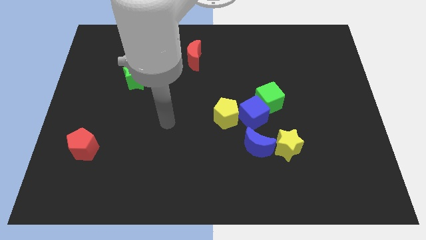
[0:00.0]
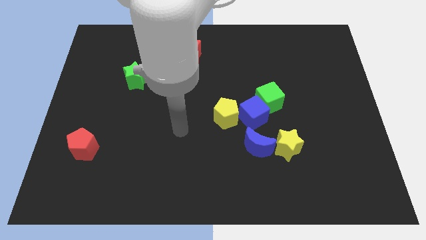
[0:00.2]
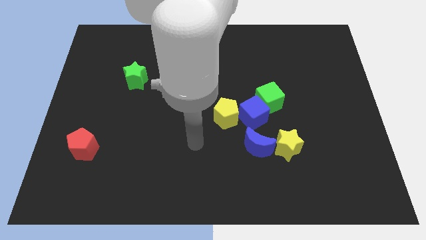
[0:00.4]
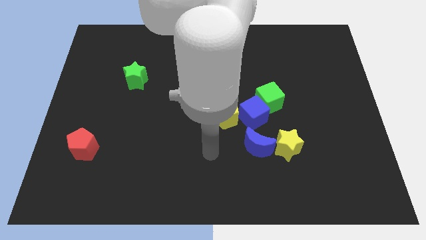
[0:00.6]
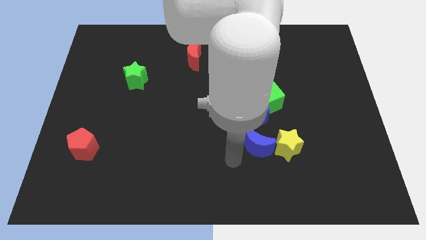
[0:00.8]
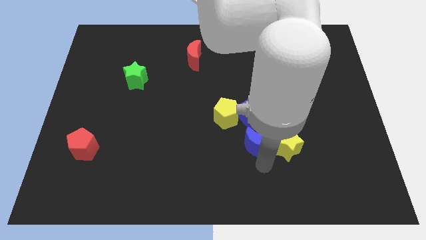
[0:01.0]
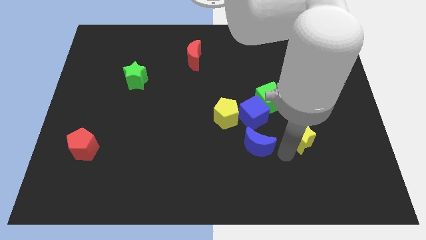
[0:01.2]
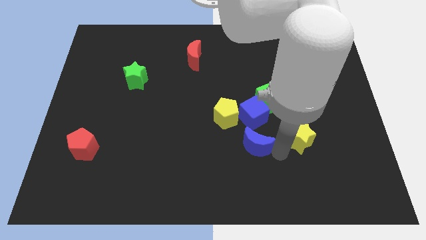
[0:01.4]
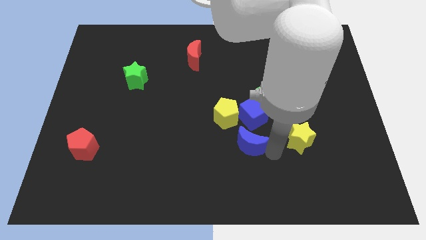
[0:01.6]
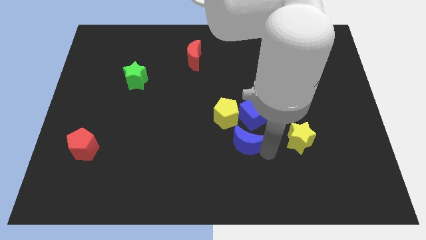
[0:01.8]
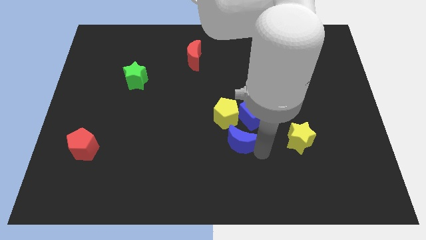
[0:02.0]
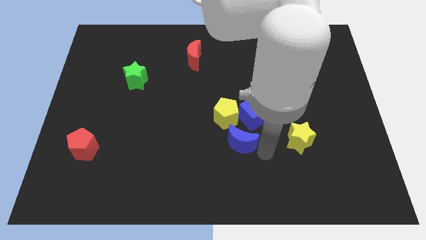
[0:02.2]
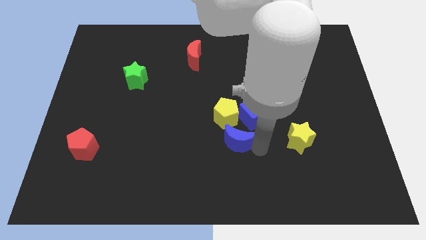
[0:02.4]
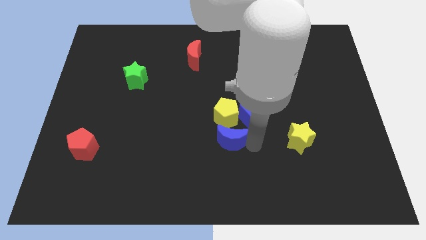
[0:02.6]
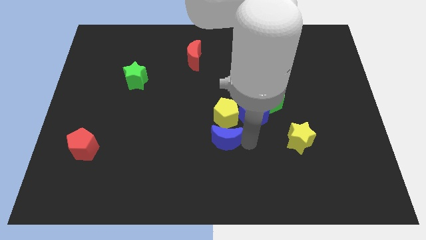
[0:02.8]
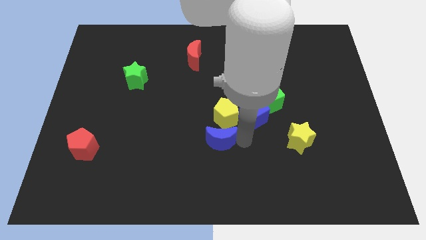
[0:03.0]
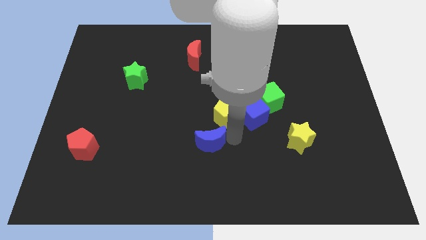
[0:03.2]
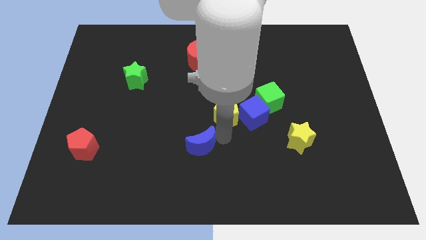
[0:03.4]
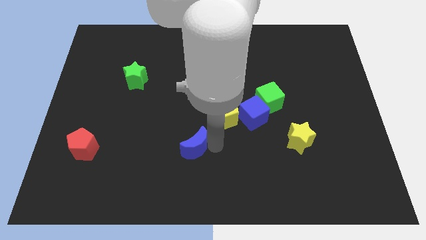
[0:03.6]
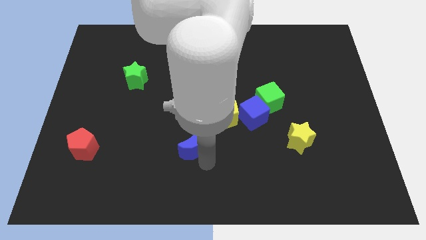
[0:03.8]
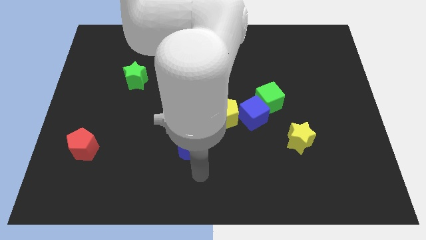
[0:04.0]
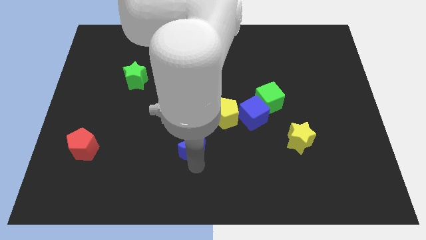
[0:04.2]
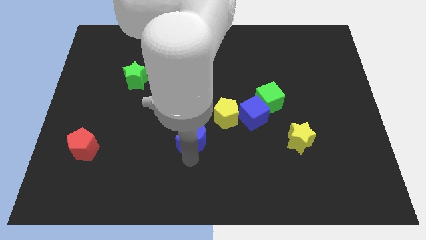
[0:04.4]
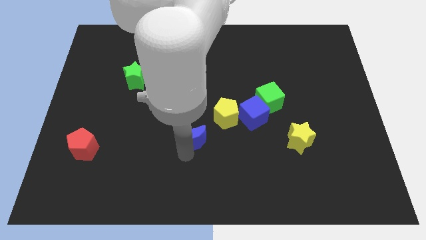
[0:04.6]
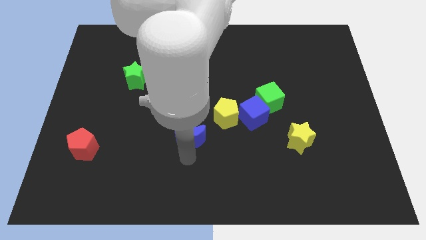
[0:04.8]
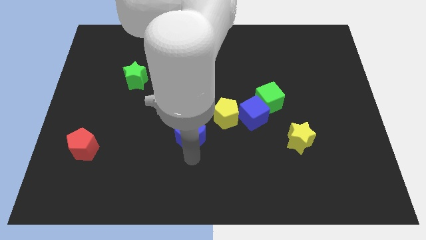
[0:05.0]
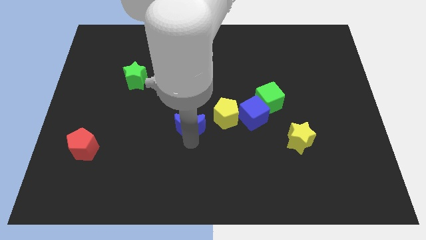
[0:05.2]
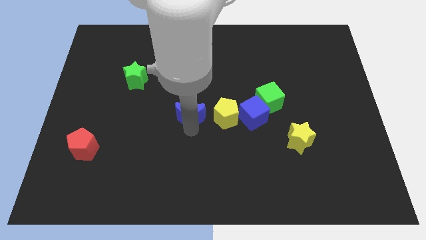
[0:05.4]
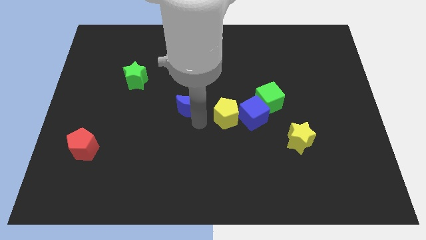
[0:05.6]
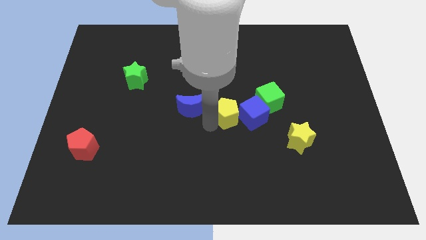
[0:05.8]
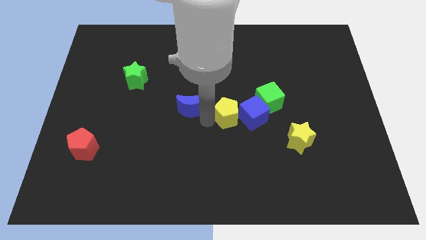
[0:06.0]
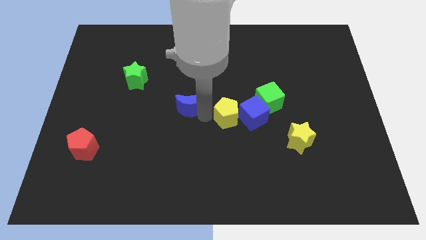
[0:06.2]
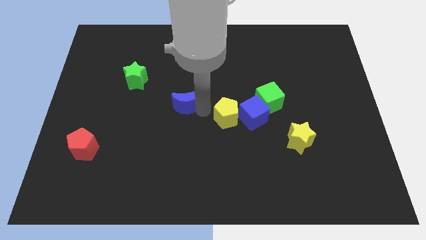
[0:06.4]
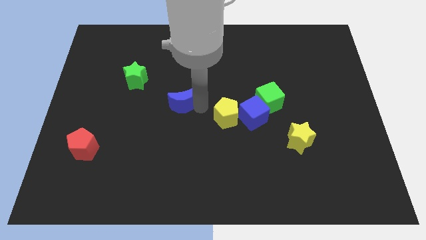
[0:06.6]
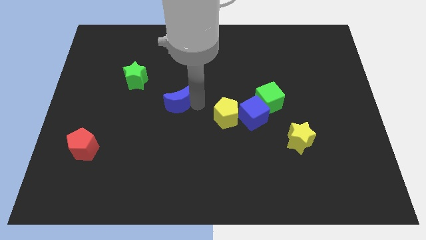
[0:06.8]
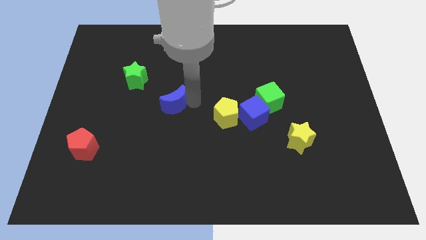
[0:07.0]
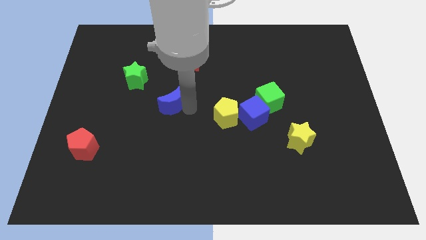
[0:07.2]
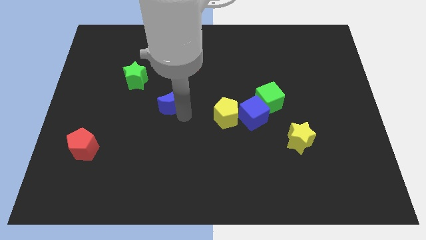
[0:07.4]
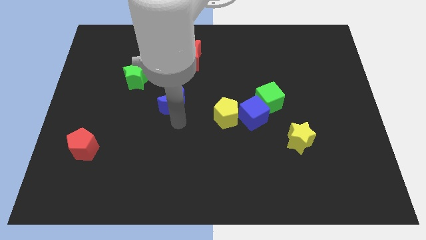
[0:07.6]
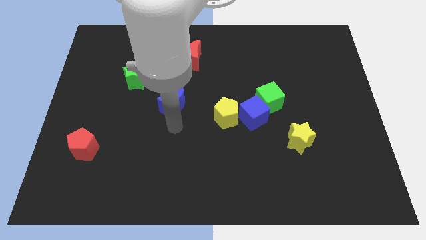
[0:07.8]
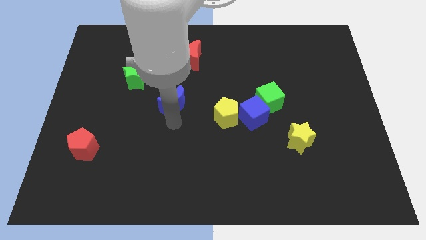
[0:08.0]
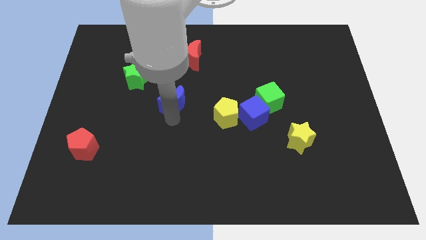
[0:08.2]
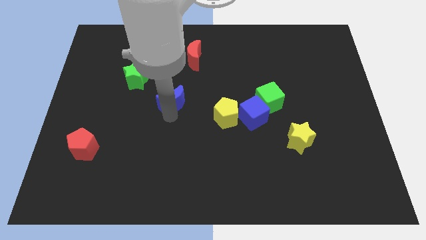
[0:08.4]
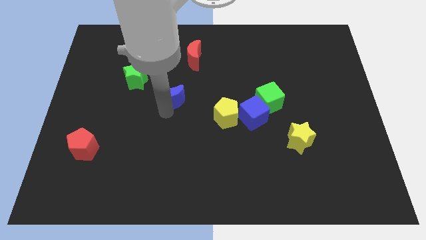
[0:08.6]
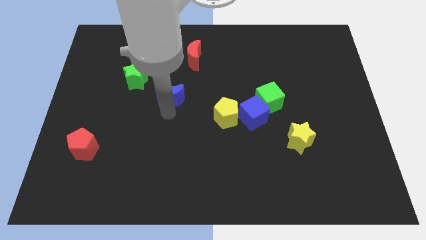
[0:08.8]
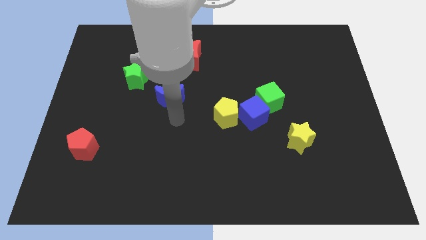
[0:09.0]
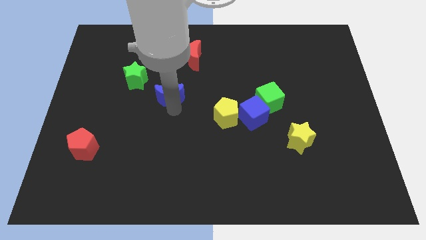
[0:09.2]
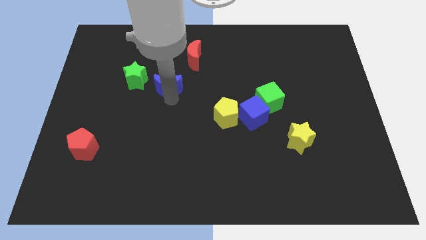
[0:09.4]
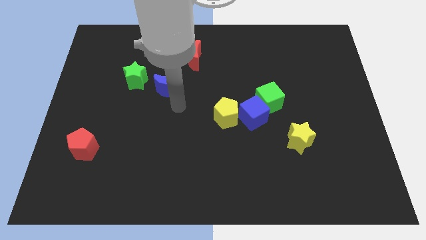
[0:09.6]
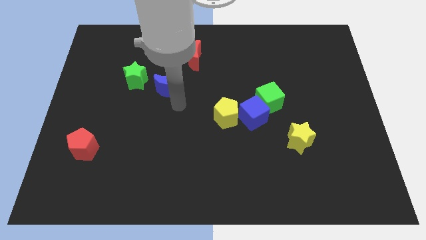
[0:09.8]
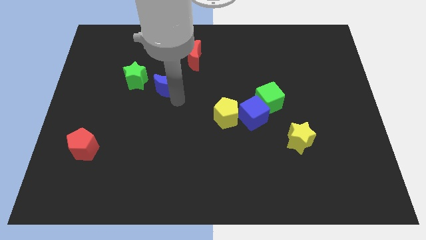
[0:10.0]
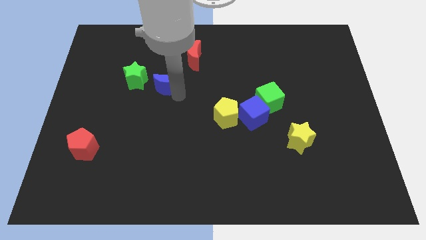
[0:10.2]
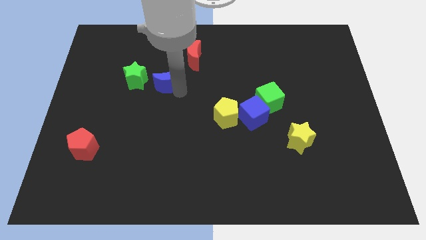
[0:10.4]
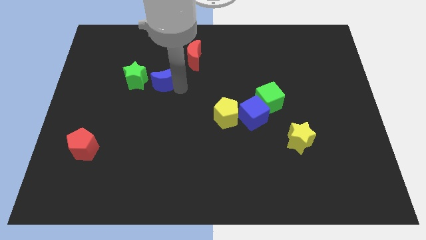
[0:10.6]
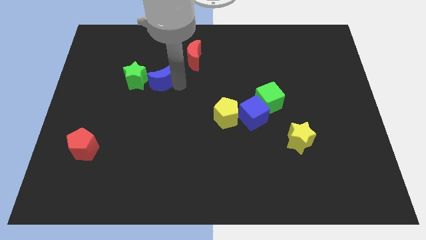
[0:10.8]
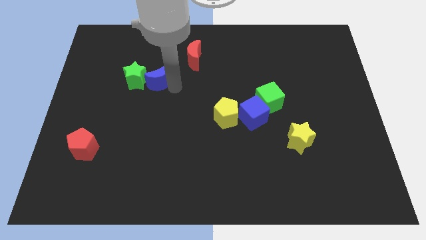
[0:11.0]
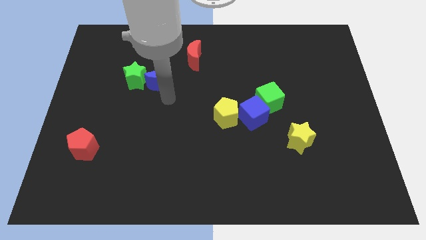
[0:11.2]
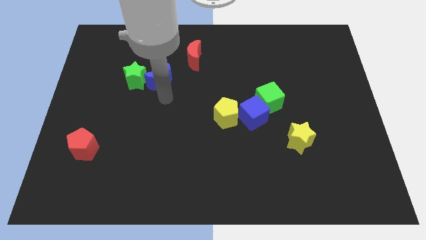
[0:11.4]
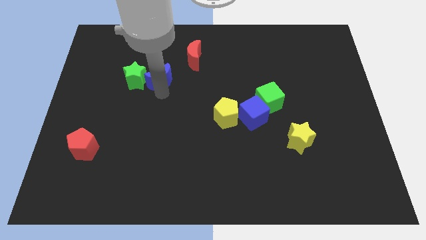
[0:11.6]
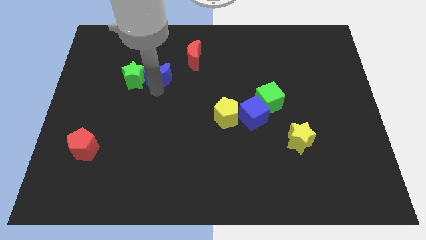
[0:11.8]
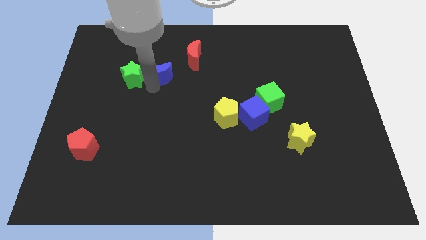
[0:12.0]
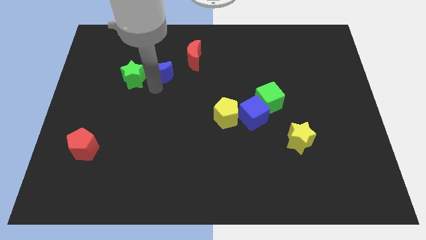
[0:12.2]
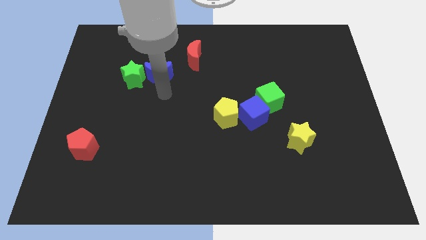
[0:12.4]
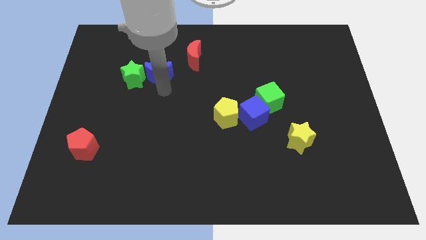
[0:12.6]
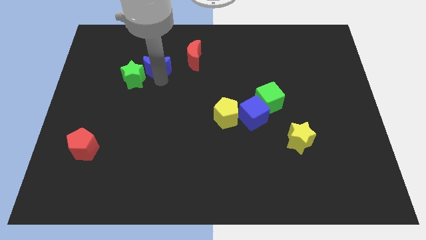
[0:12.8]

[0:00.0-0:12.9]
push the blue moon to the left of the red moon
